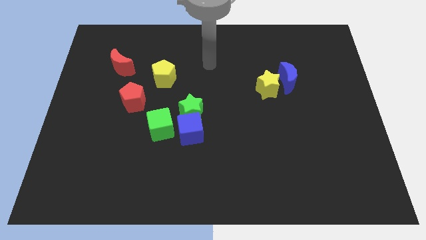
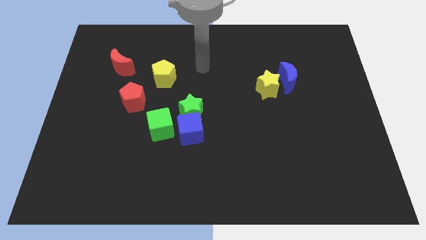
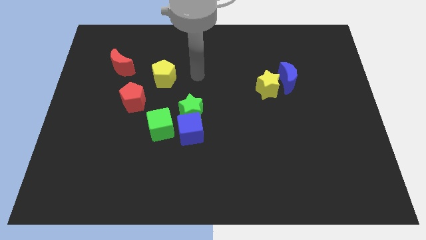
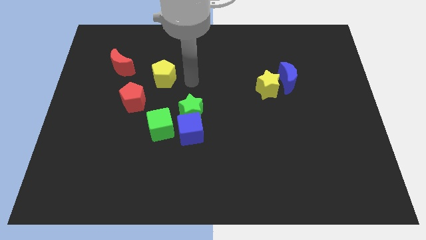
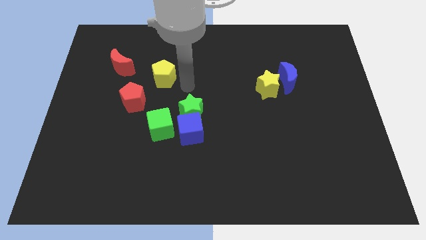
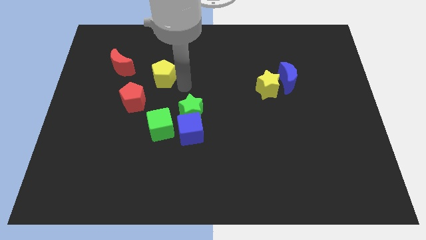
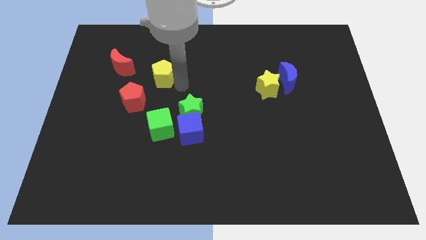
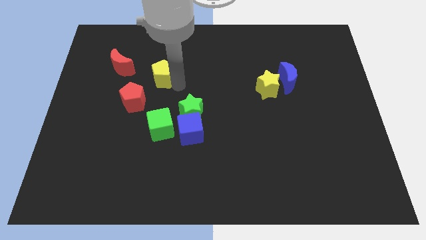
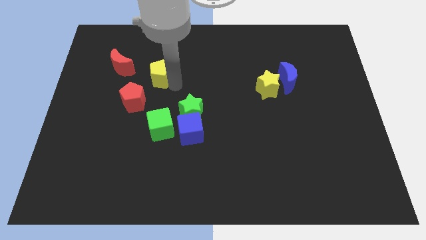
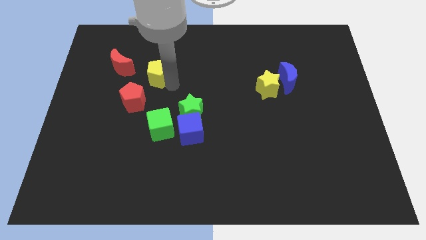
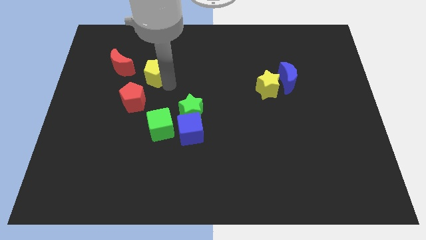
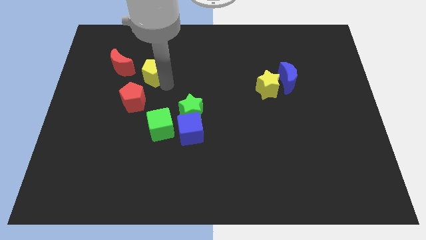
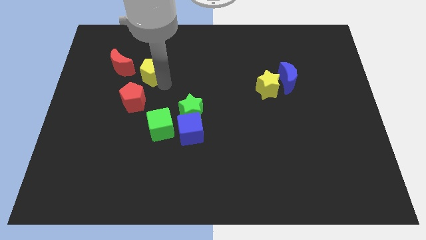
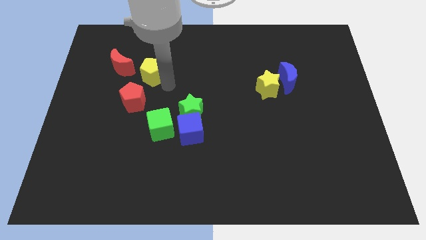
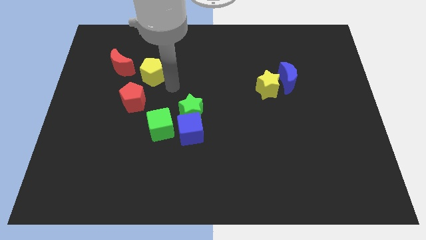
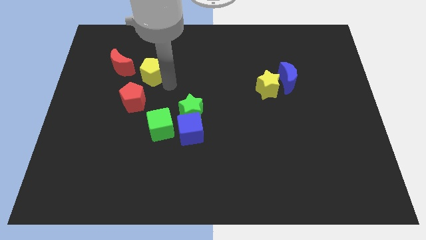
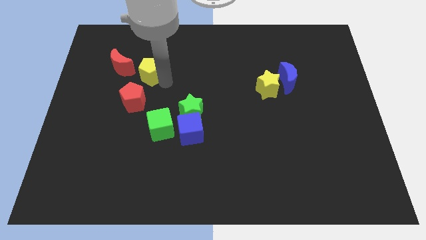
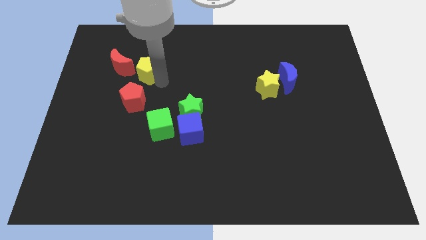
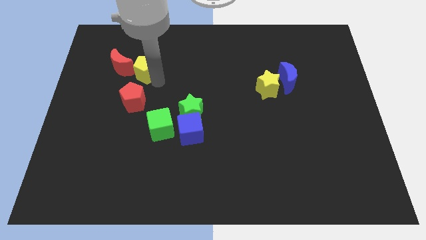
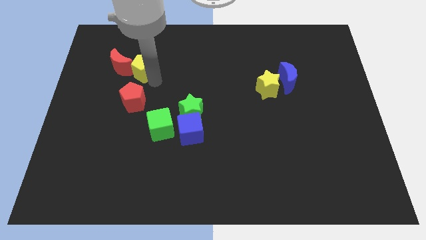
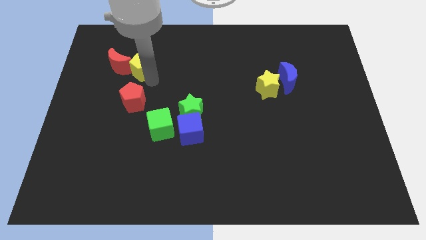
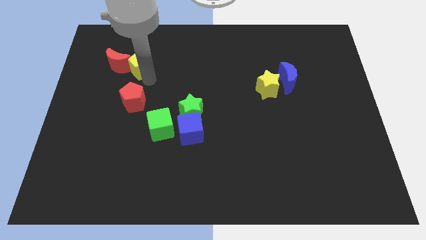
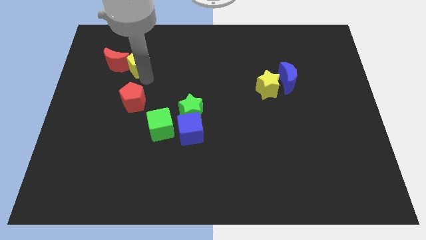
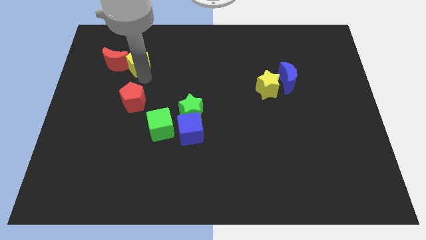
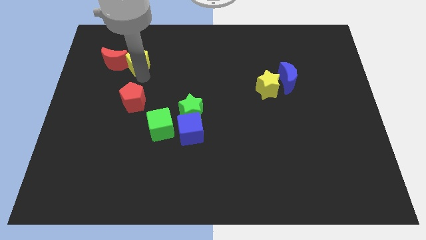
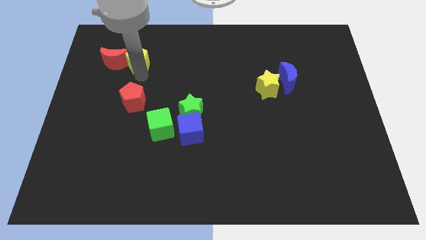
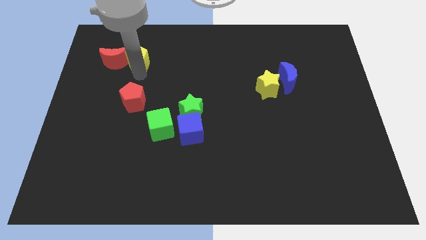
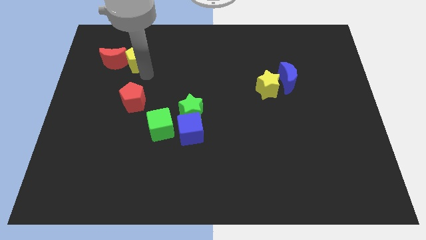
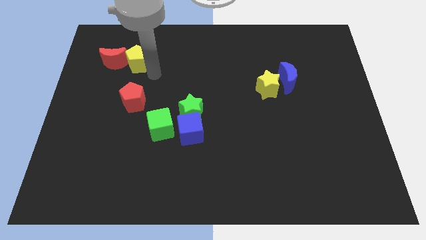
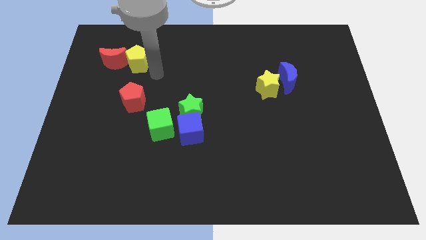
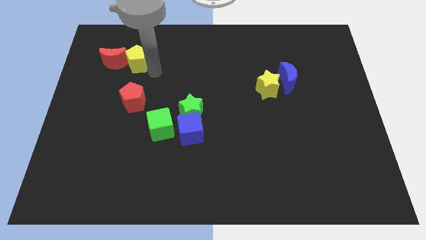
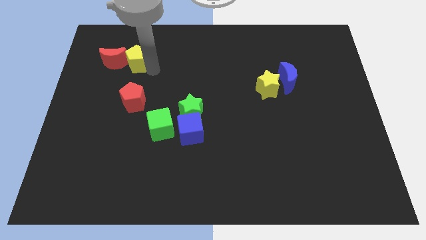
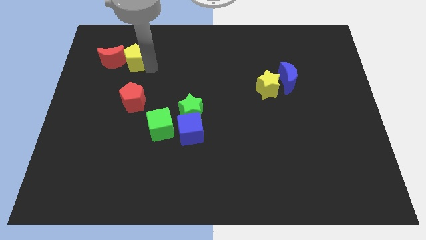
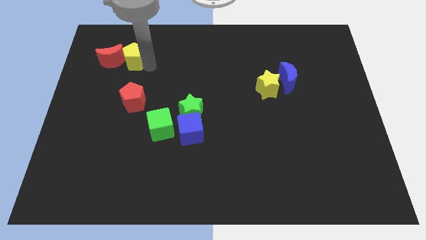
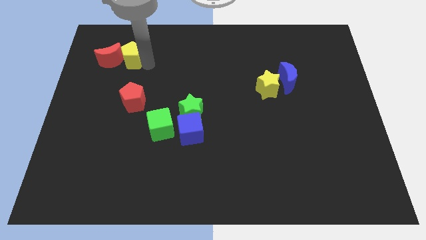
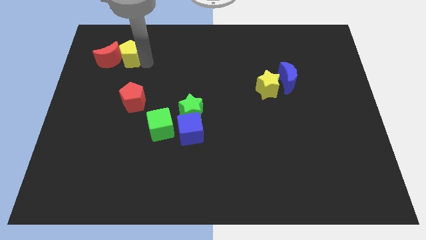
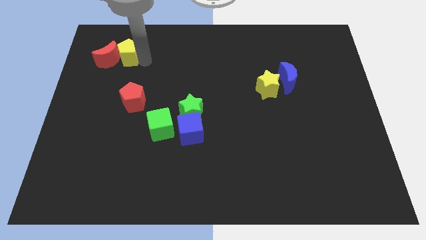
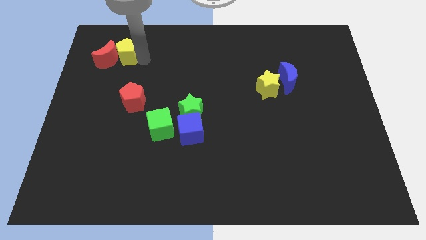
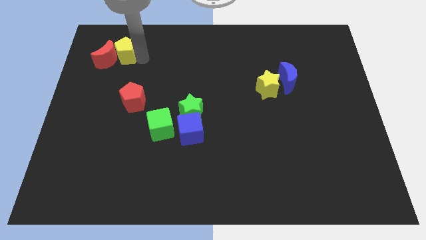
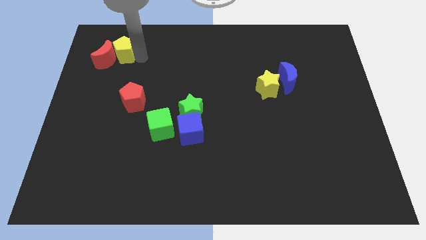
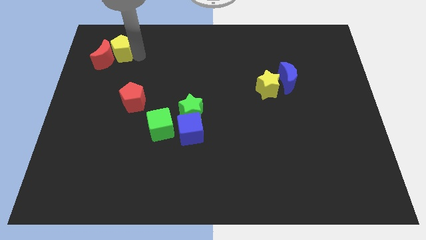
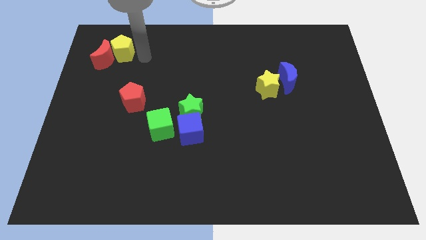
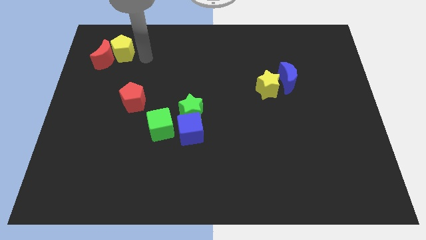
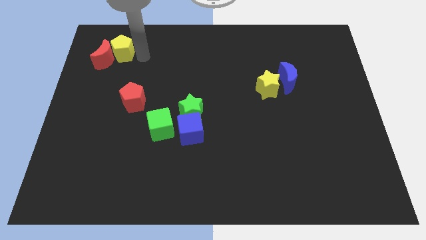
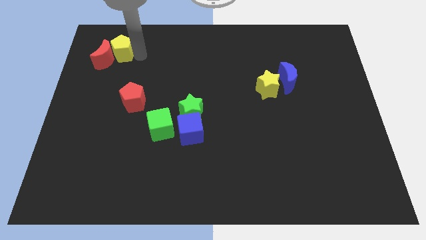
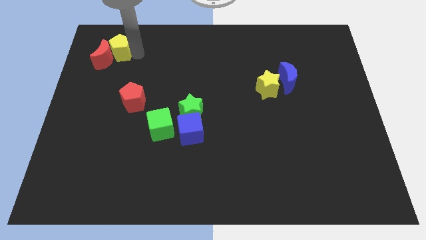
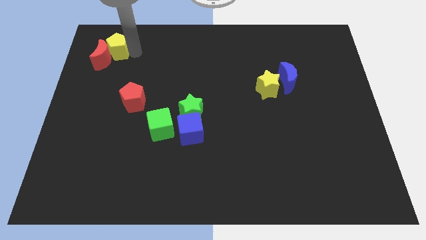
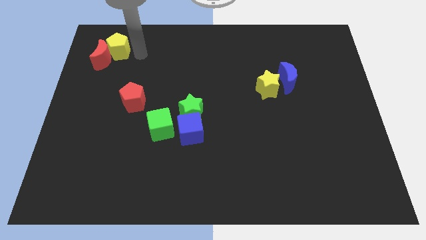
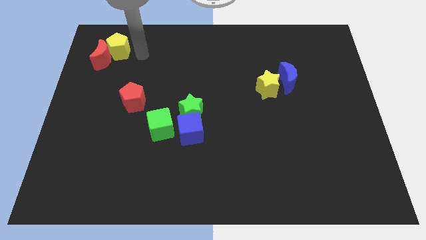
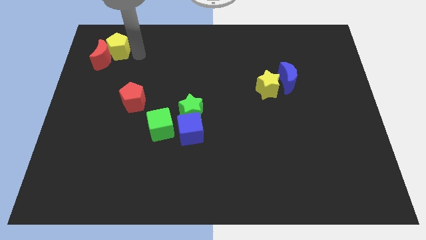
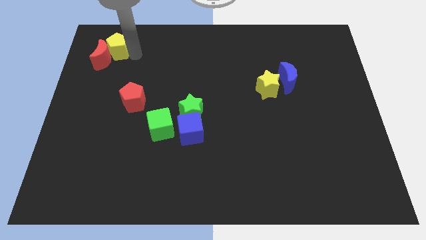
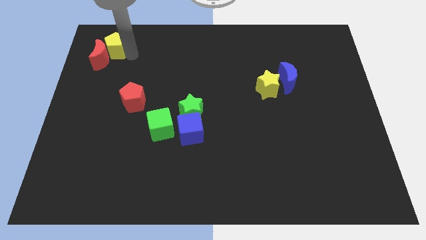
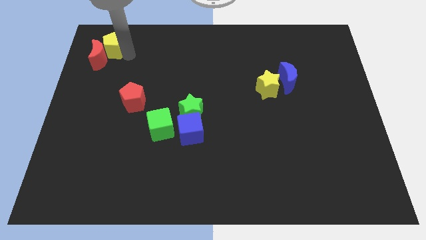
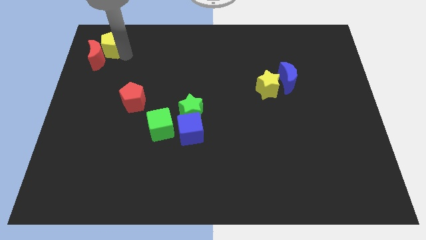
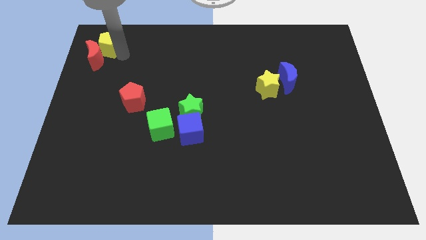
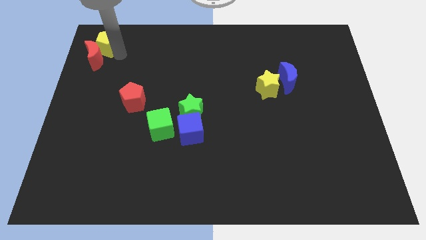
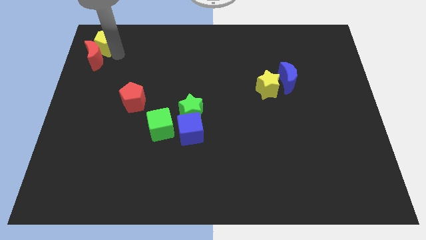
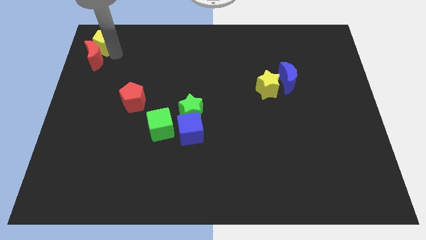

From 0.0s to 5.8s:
move the yellow pentagon to the top left
